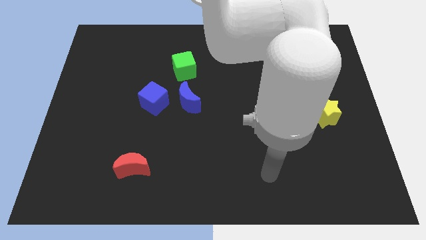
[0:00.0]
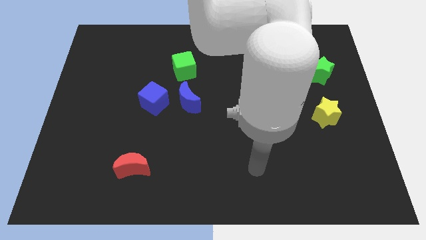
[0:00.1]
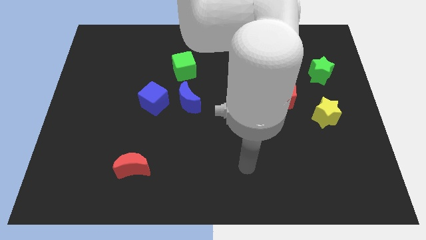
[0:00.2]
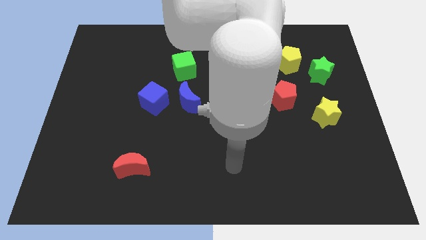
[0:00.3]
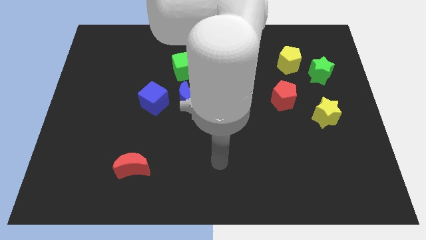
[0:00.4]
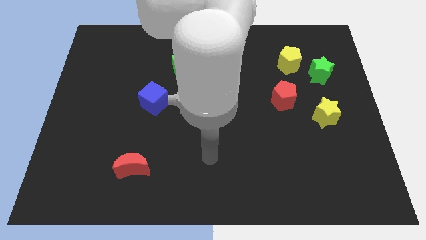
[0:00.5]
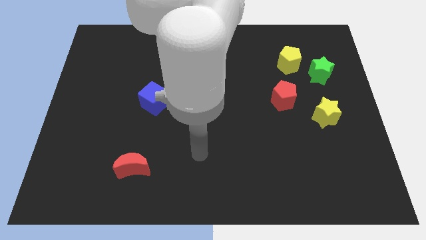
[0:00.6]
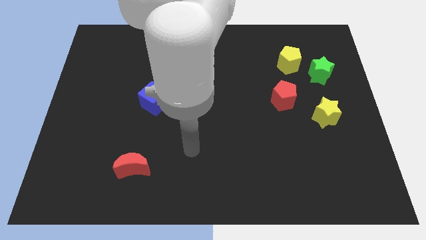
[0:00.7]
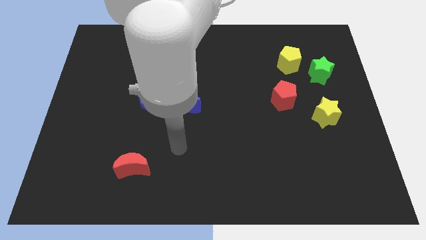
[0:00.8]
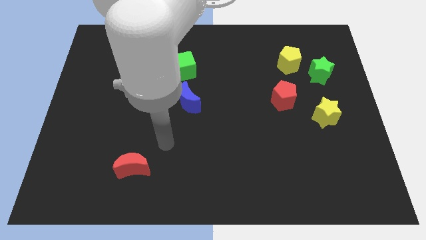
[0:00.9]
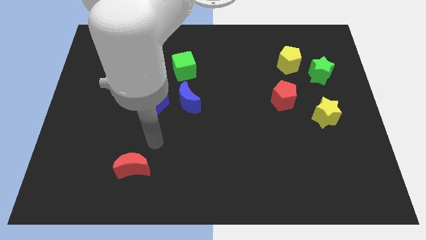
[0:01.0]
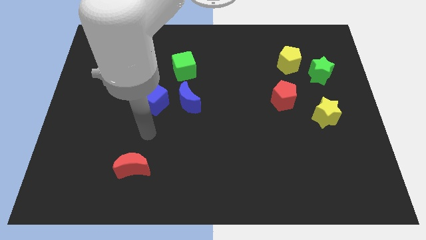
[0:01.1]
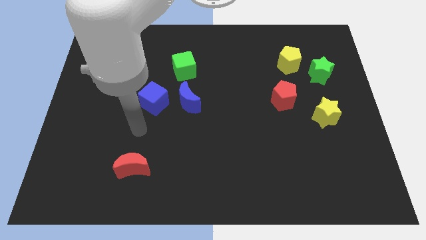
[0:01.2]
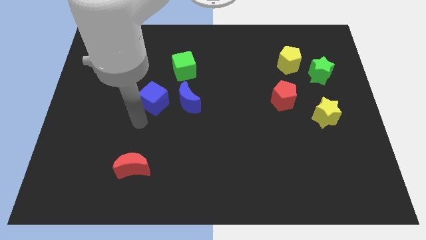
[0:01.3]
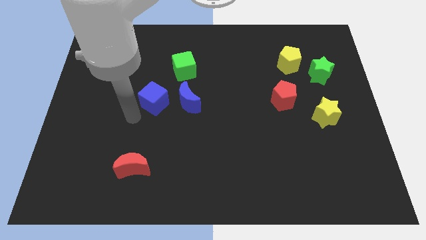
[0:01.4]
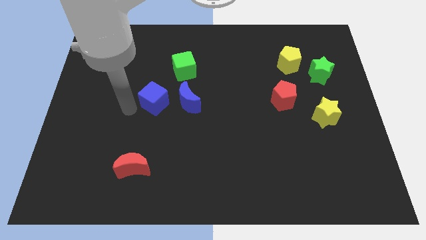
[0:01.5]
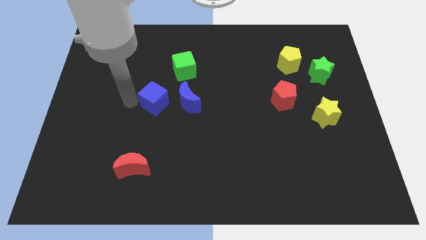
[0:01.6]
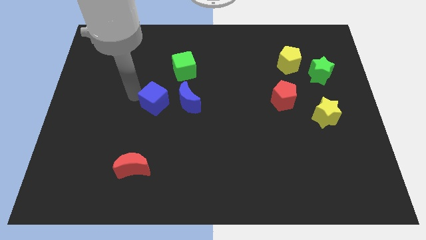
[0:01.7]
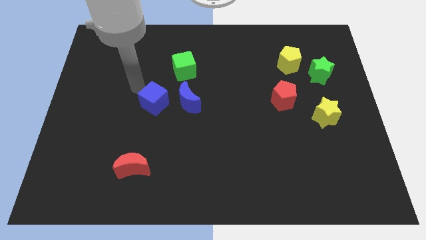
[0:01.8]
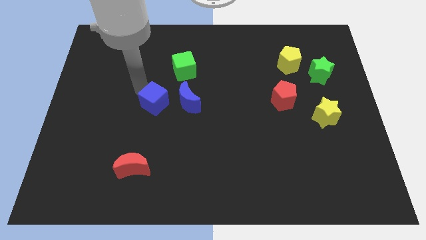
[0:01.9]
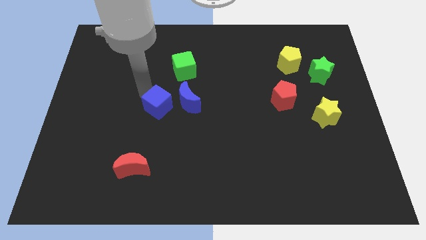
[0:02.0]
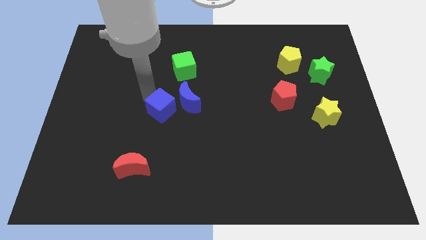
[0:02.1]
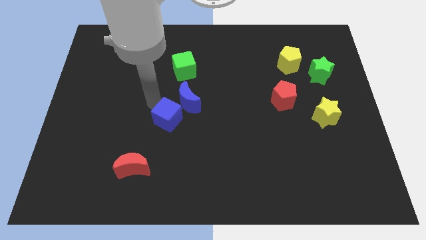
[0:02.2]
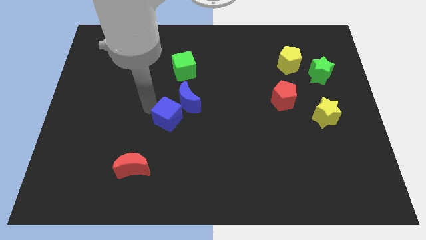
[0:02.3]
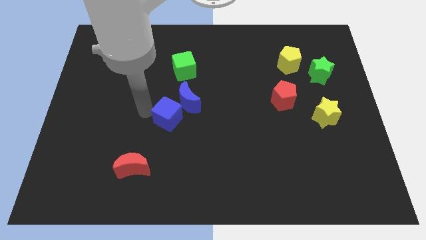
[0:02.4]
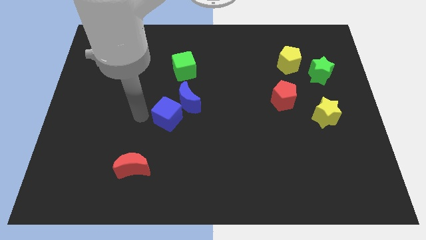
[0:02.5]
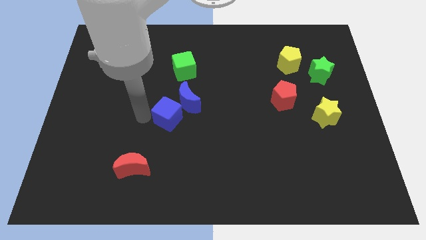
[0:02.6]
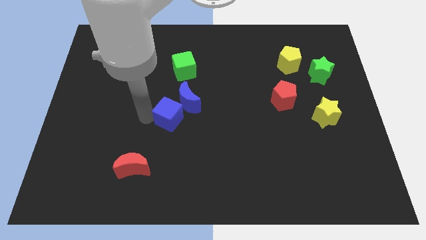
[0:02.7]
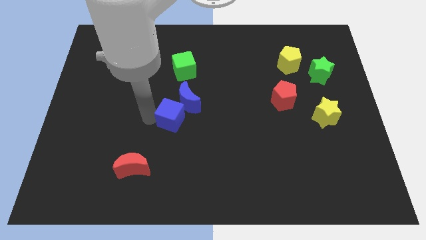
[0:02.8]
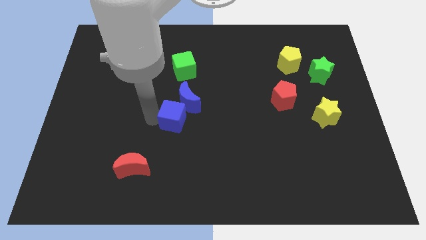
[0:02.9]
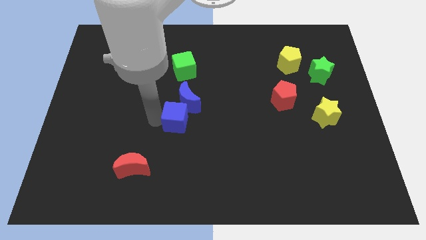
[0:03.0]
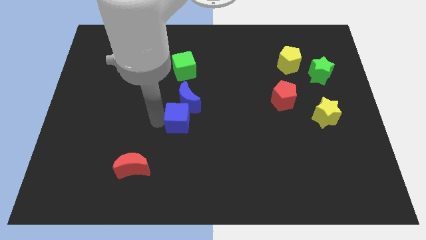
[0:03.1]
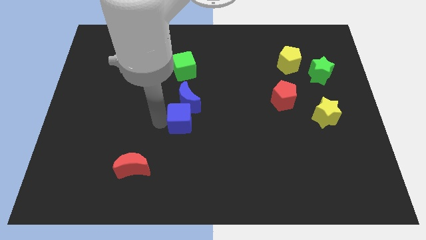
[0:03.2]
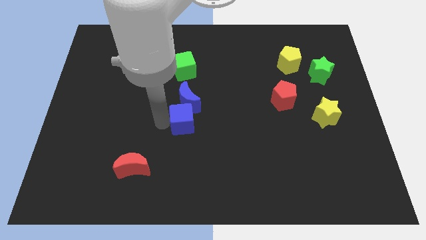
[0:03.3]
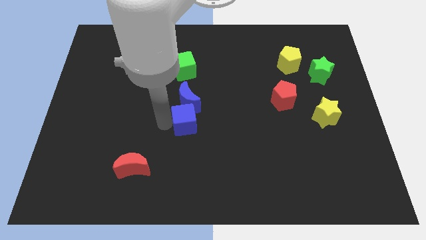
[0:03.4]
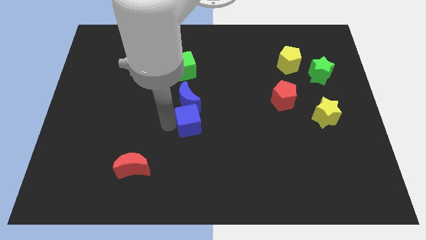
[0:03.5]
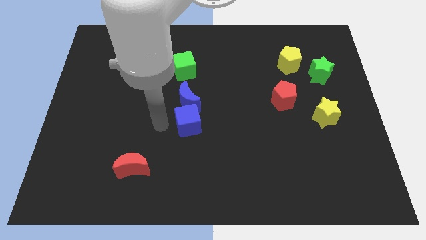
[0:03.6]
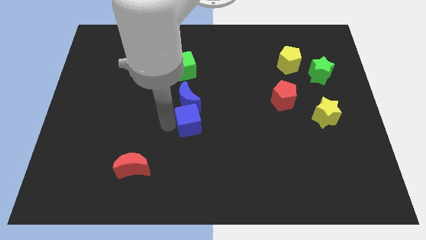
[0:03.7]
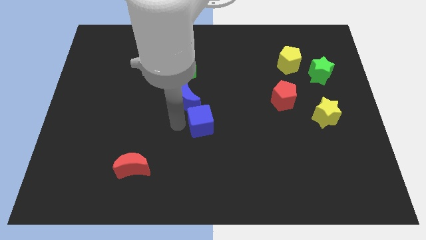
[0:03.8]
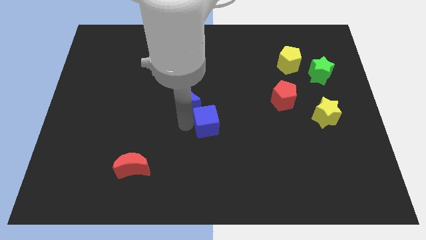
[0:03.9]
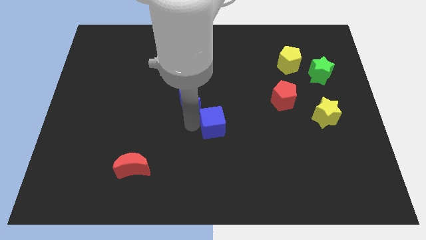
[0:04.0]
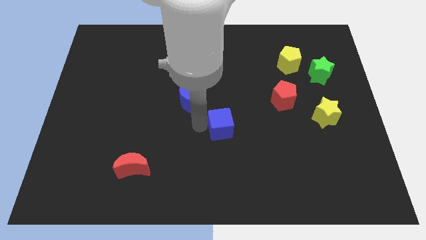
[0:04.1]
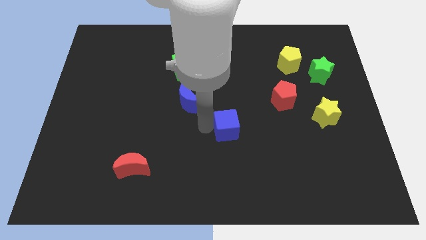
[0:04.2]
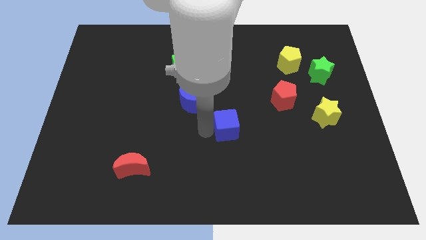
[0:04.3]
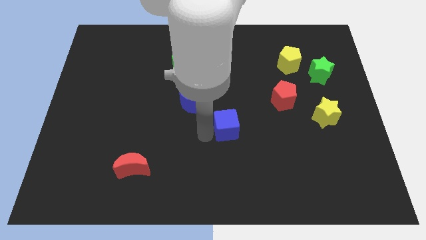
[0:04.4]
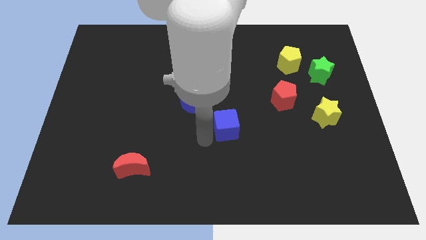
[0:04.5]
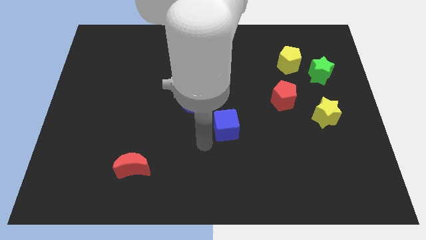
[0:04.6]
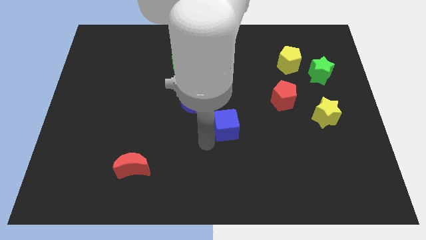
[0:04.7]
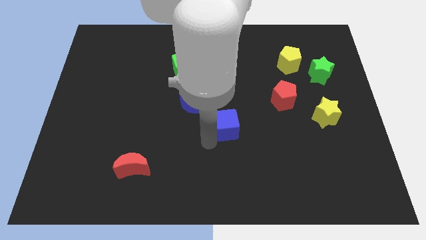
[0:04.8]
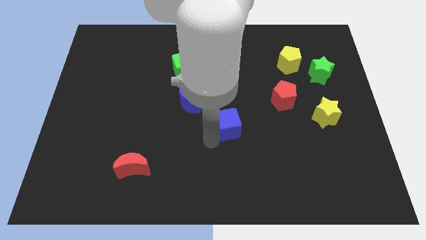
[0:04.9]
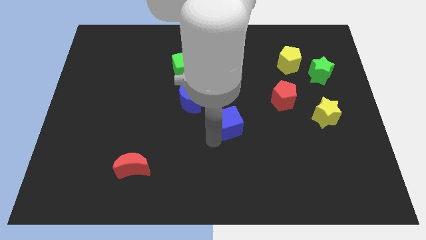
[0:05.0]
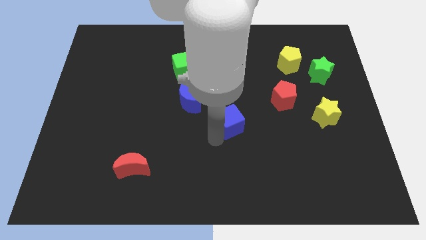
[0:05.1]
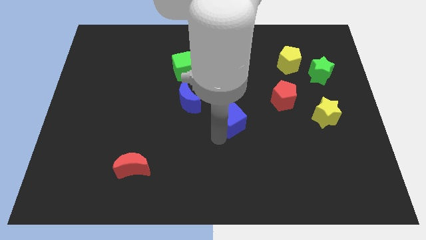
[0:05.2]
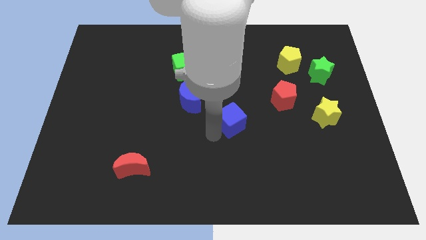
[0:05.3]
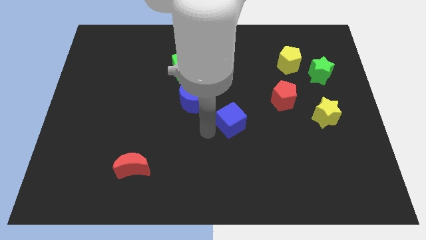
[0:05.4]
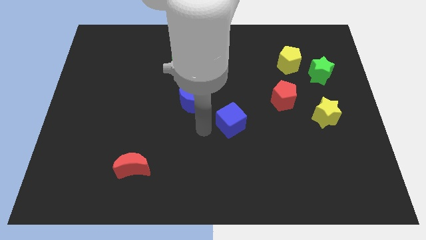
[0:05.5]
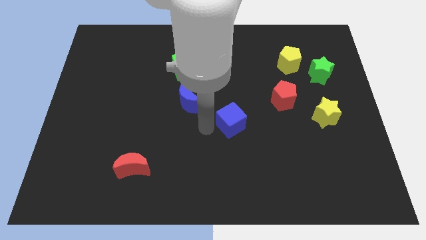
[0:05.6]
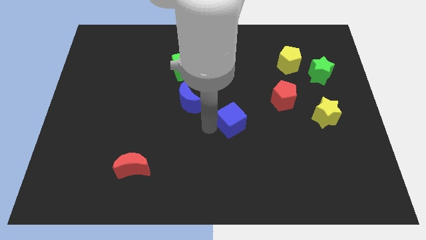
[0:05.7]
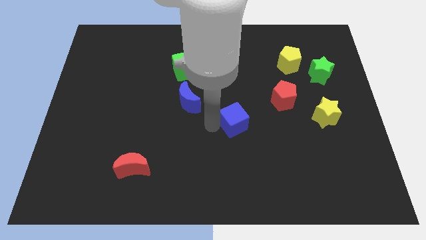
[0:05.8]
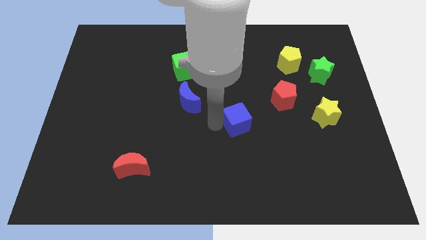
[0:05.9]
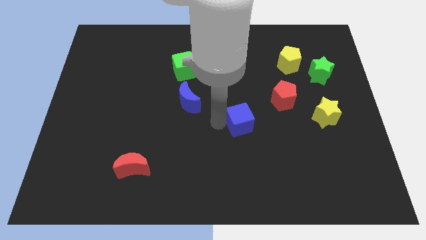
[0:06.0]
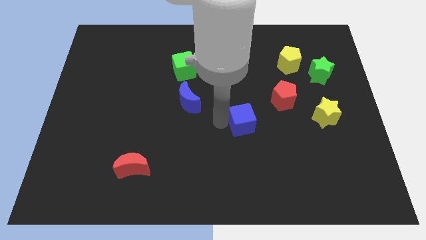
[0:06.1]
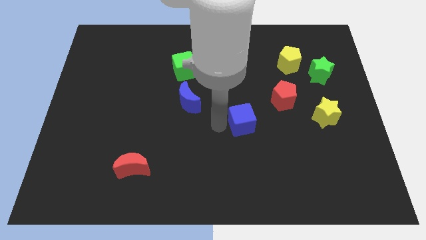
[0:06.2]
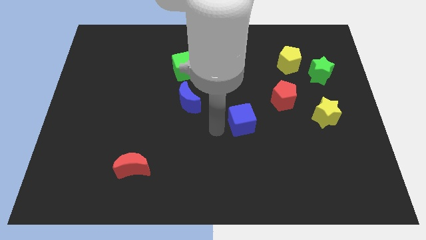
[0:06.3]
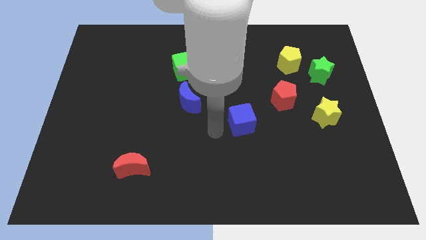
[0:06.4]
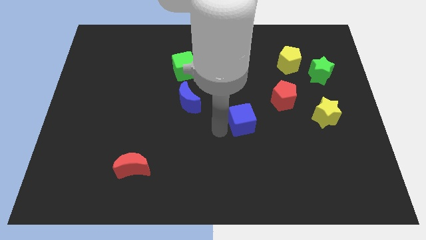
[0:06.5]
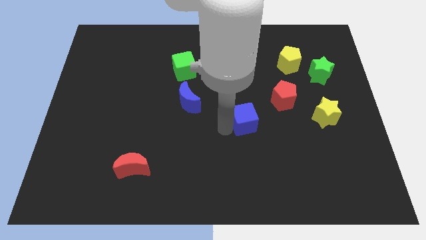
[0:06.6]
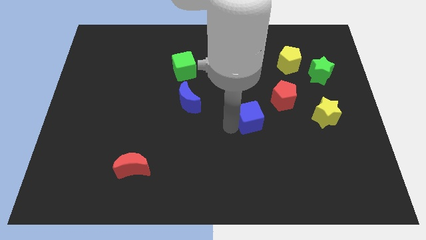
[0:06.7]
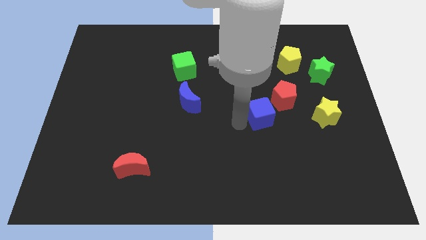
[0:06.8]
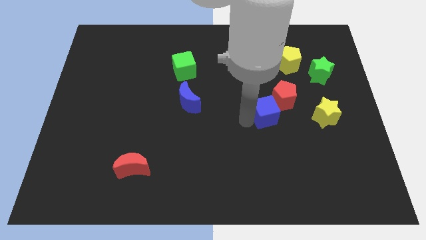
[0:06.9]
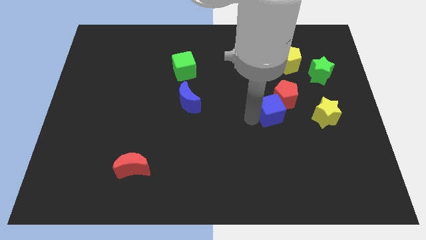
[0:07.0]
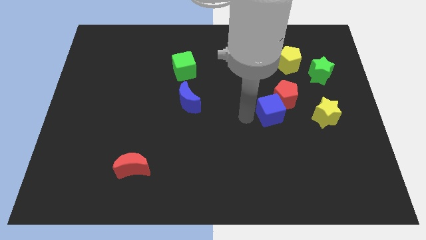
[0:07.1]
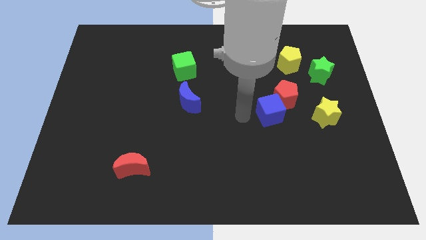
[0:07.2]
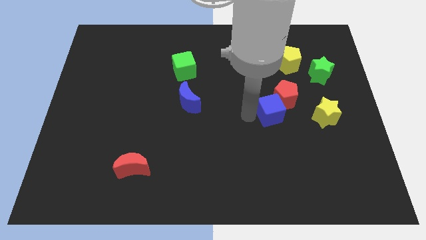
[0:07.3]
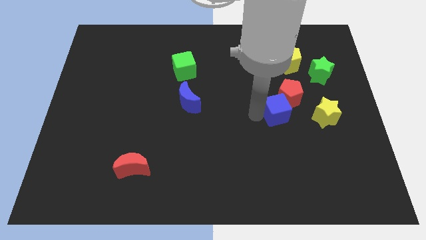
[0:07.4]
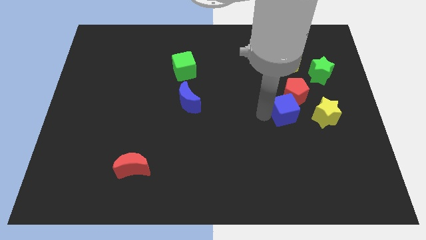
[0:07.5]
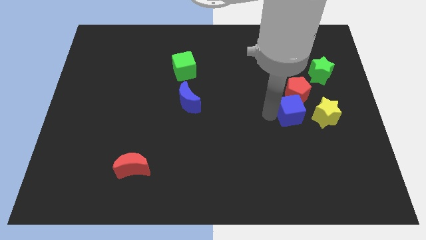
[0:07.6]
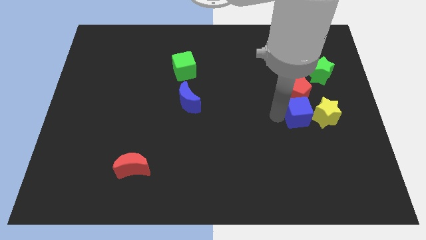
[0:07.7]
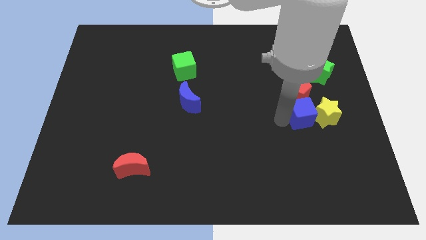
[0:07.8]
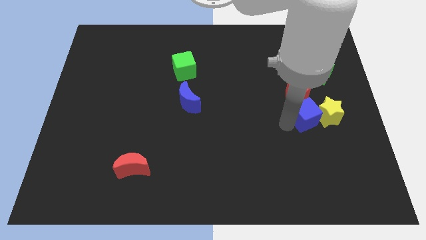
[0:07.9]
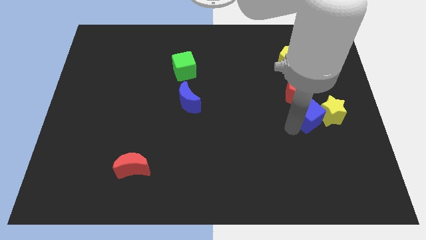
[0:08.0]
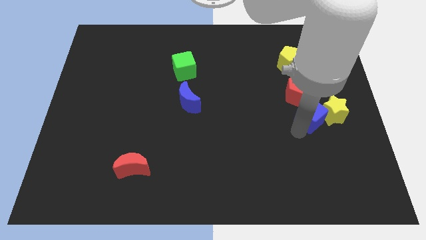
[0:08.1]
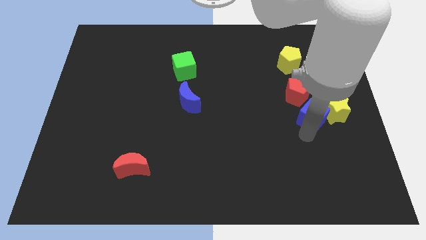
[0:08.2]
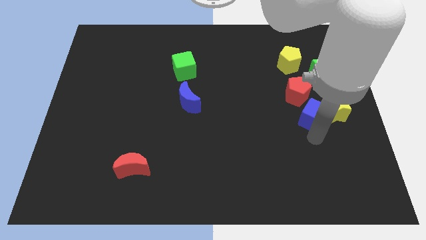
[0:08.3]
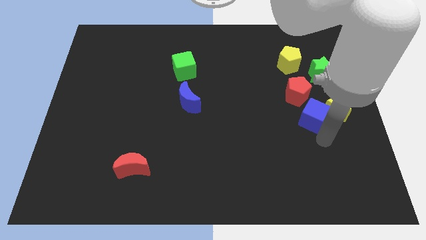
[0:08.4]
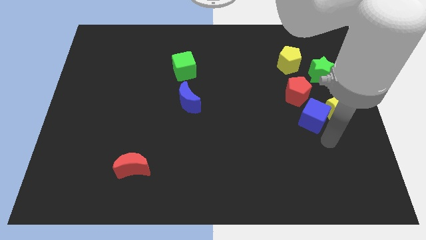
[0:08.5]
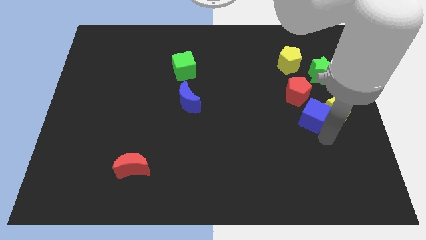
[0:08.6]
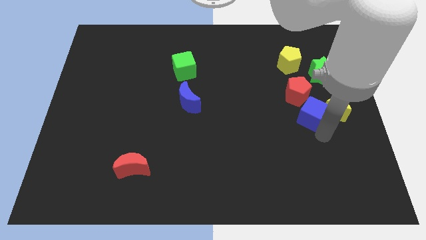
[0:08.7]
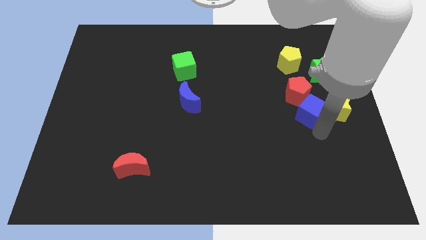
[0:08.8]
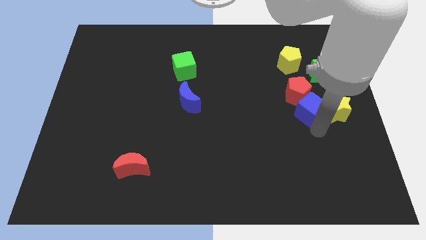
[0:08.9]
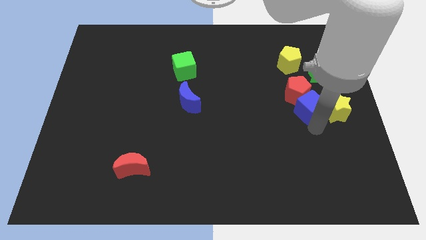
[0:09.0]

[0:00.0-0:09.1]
slide the blue cube to the bottom side of the yellow pentagon
